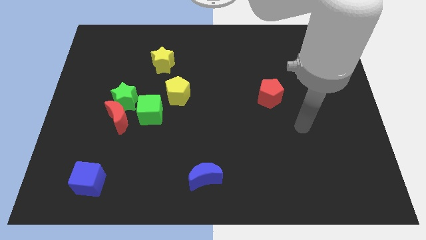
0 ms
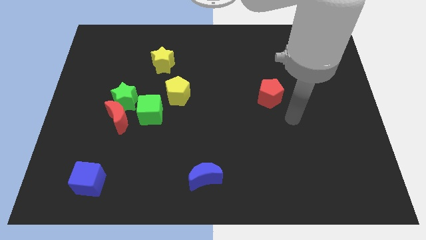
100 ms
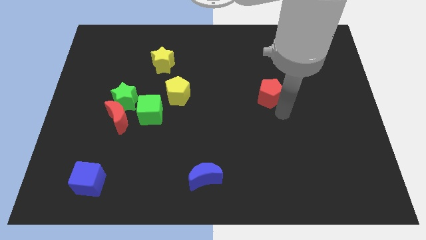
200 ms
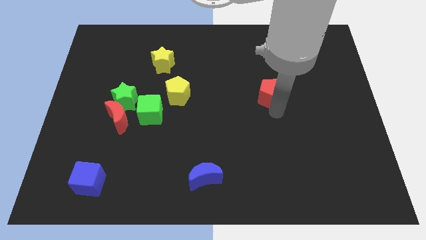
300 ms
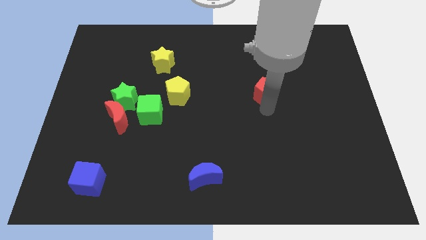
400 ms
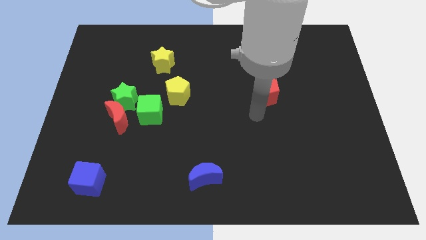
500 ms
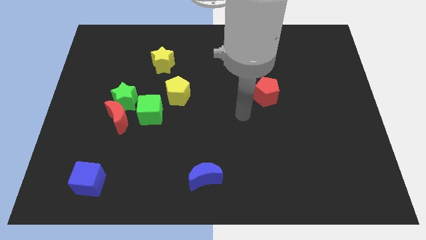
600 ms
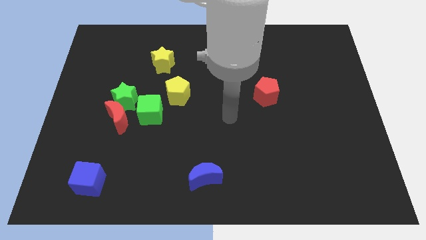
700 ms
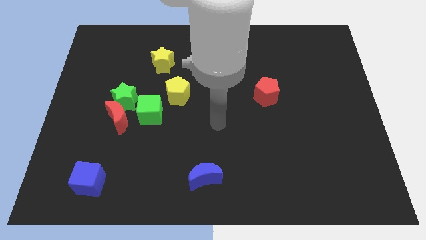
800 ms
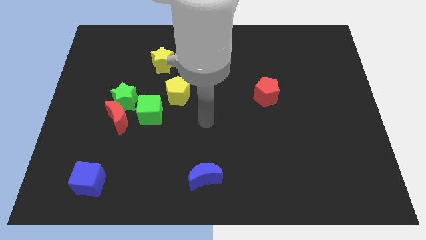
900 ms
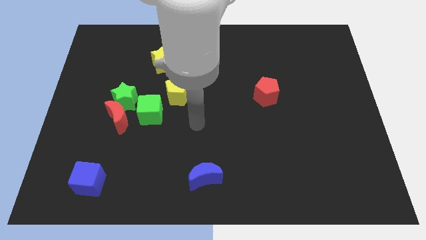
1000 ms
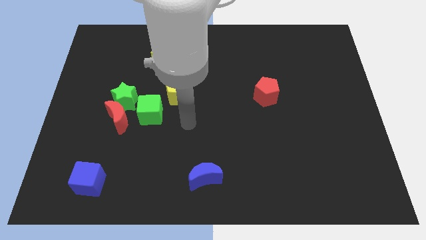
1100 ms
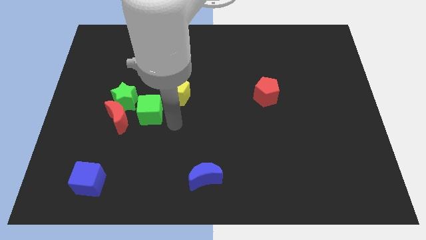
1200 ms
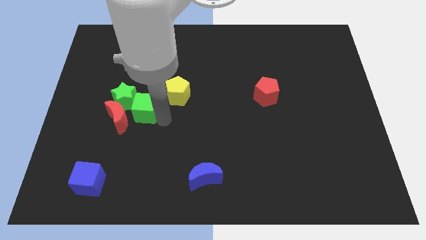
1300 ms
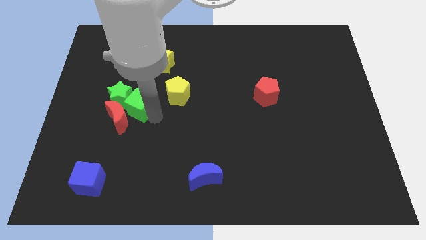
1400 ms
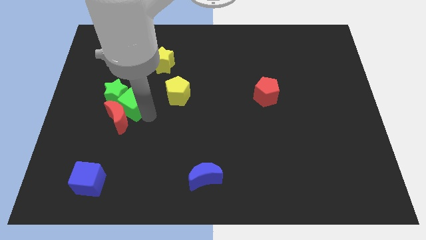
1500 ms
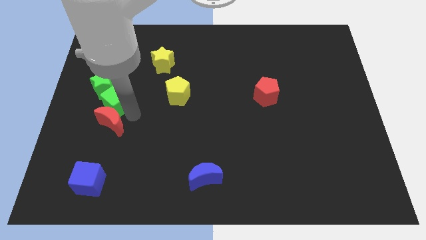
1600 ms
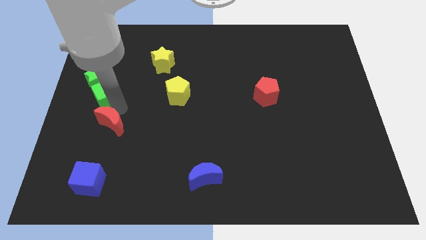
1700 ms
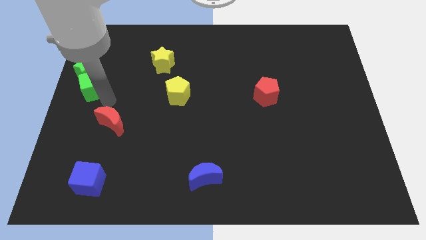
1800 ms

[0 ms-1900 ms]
pull the green star apart from the red moon and green cube

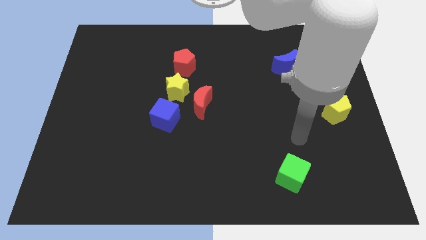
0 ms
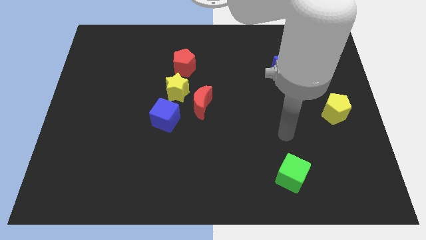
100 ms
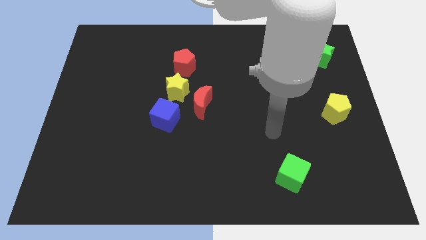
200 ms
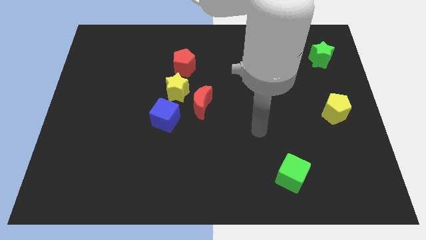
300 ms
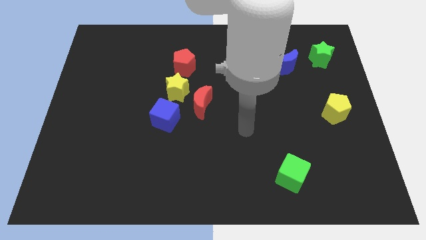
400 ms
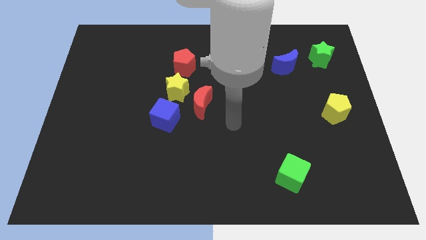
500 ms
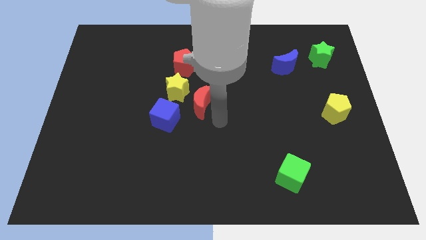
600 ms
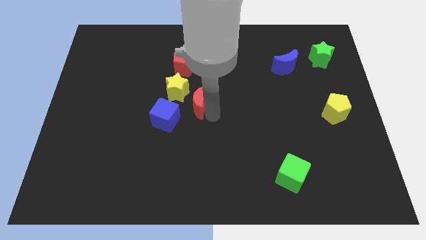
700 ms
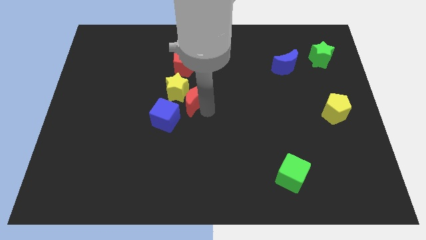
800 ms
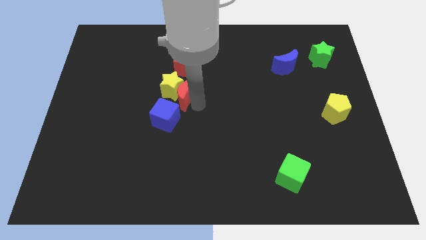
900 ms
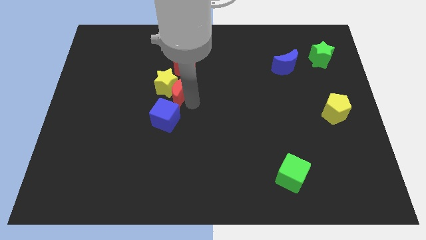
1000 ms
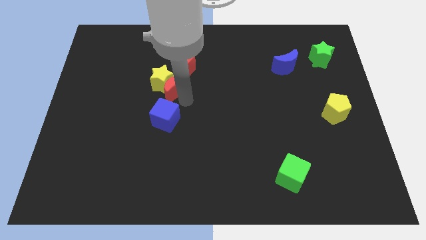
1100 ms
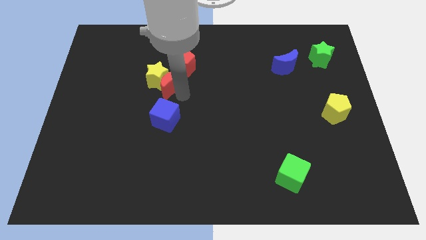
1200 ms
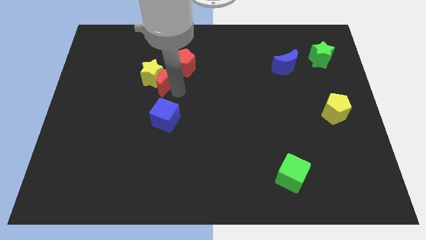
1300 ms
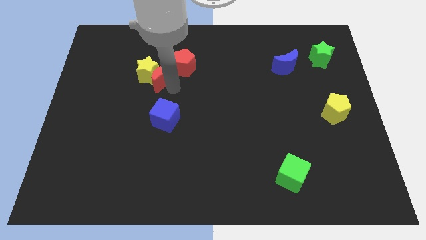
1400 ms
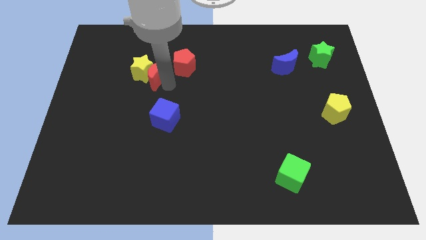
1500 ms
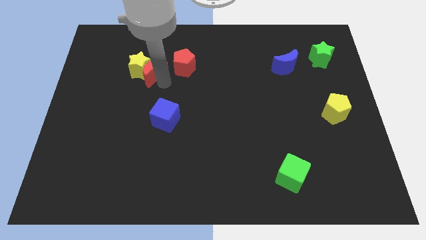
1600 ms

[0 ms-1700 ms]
move the yellow star away from the group of blocks

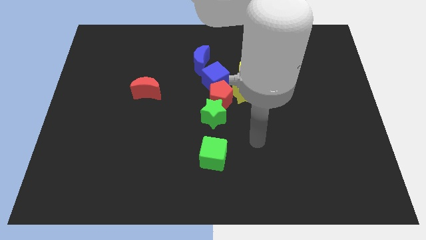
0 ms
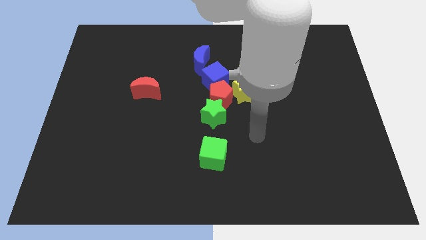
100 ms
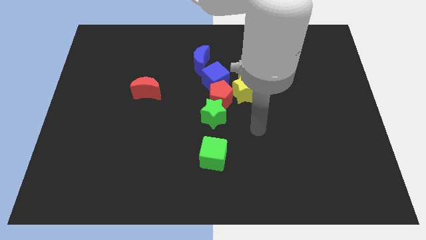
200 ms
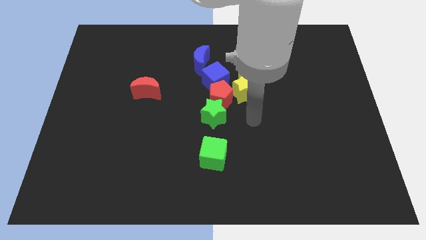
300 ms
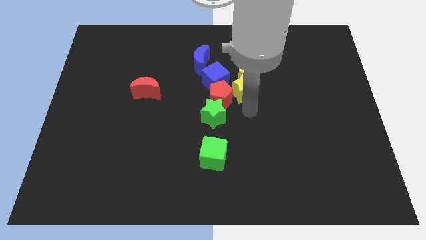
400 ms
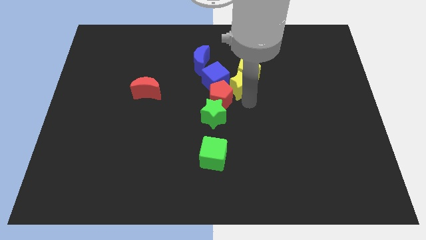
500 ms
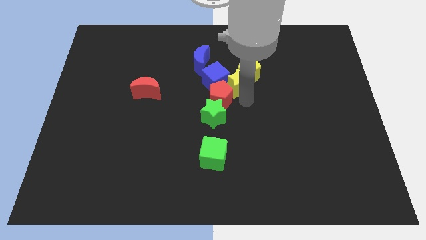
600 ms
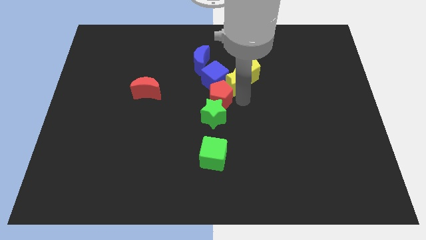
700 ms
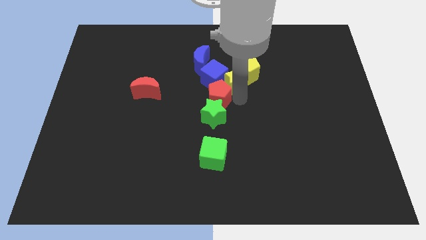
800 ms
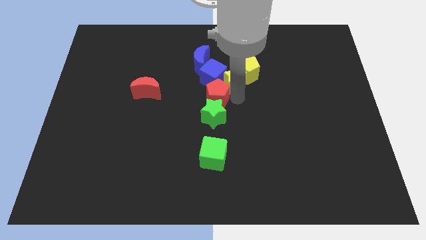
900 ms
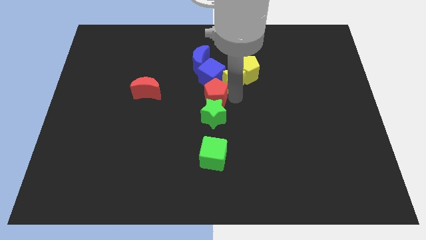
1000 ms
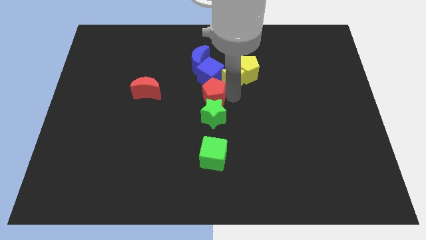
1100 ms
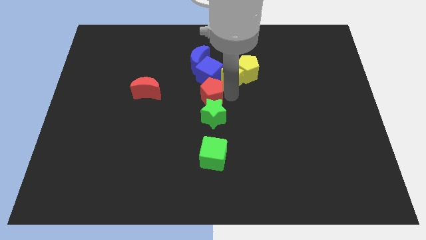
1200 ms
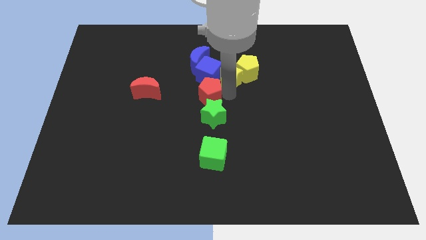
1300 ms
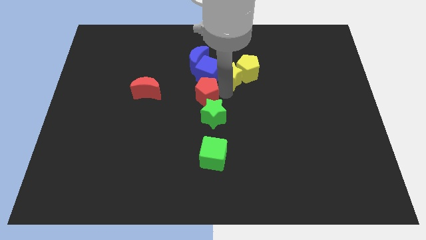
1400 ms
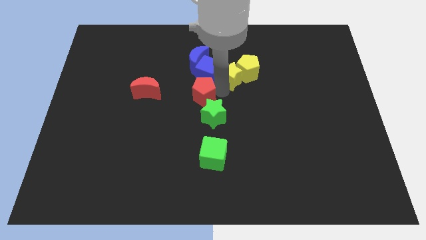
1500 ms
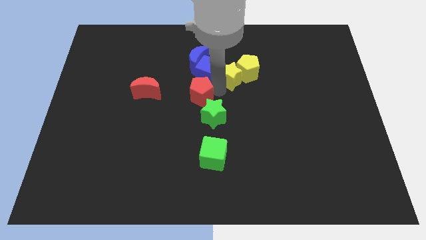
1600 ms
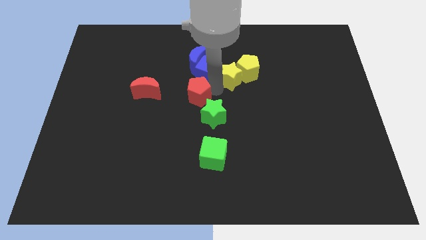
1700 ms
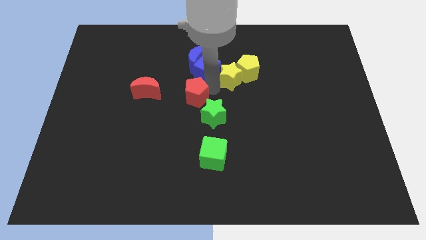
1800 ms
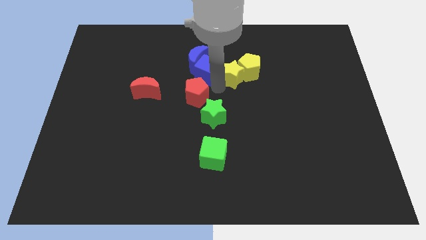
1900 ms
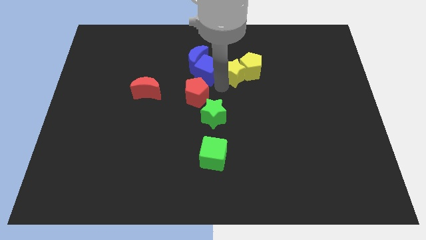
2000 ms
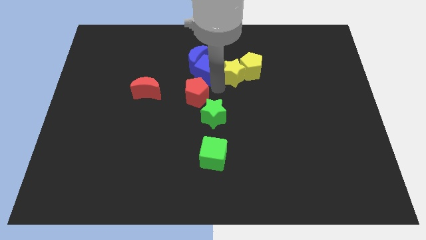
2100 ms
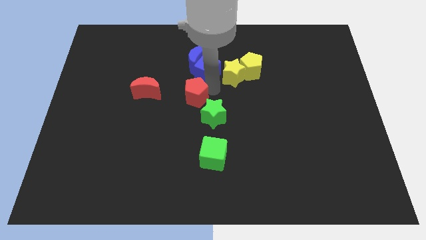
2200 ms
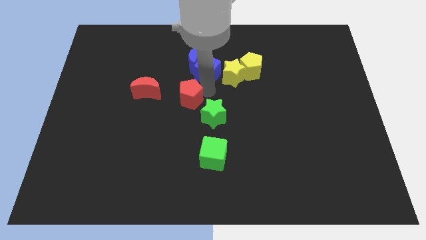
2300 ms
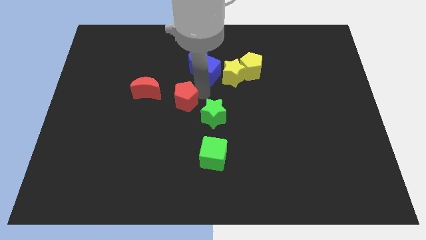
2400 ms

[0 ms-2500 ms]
separate the red pentagon from the group

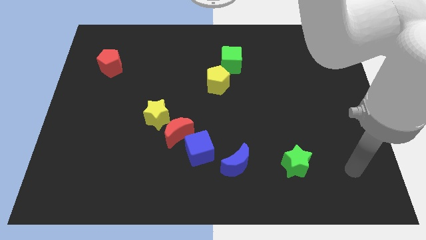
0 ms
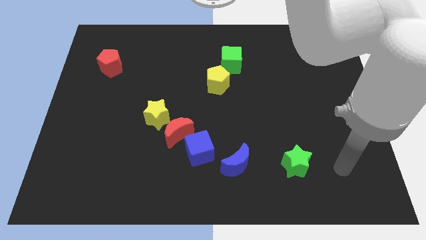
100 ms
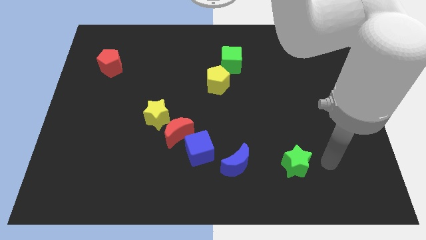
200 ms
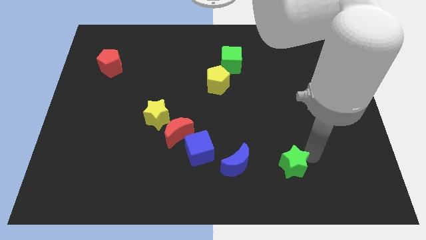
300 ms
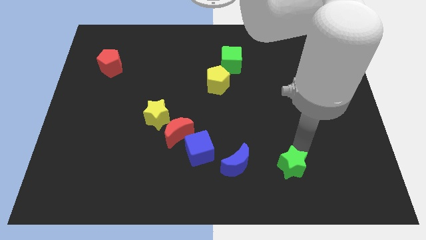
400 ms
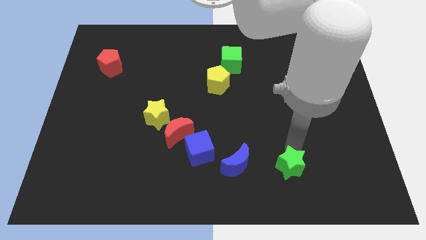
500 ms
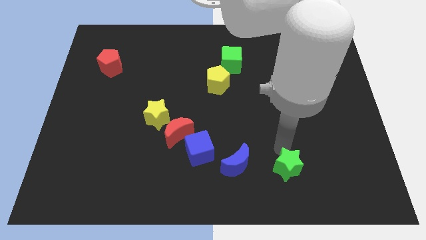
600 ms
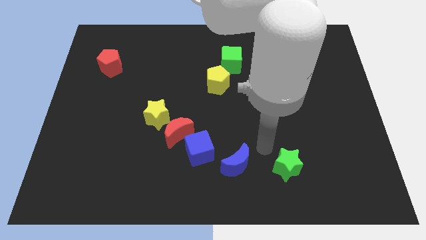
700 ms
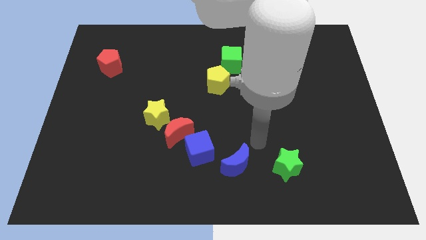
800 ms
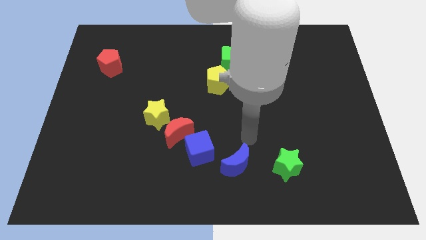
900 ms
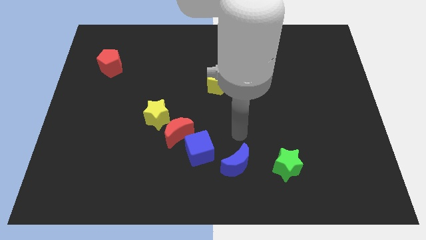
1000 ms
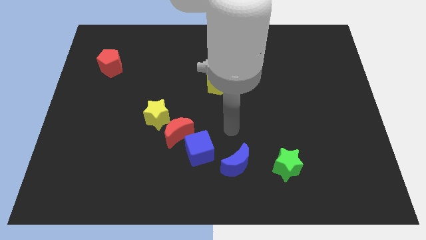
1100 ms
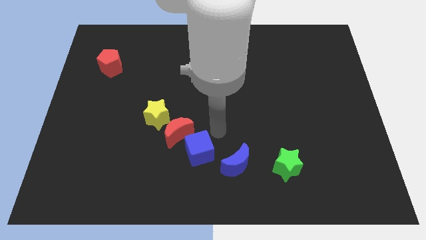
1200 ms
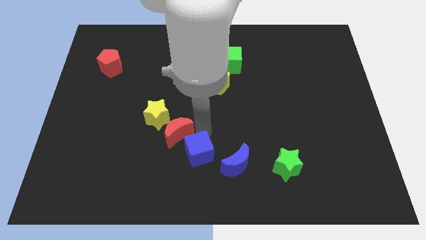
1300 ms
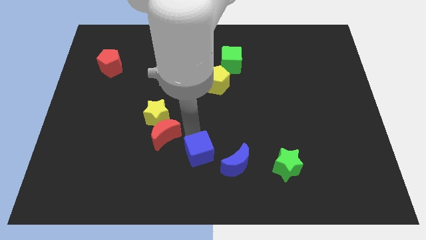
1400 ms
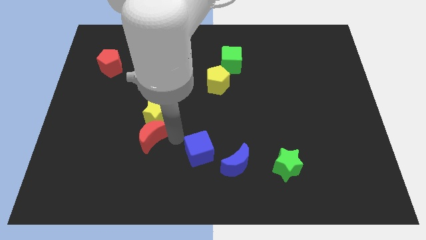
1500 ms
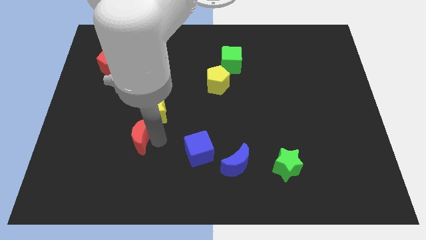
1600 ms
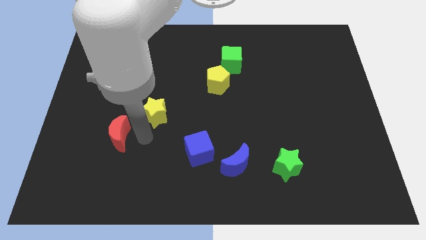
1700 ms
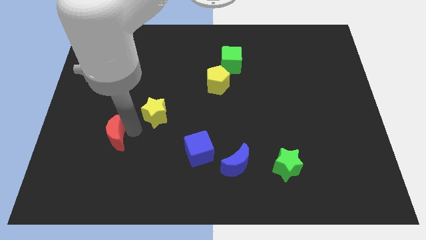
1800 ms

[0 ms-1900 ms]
pull the yellow star apart from the red moon

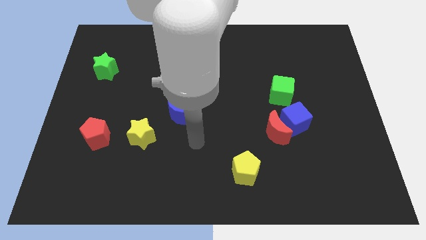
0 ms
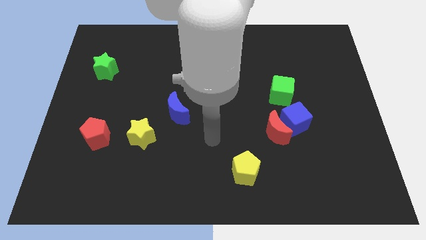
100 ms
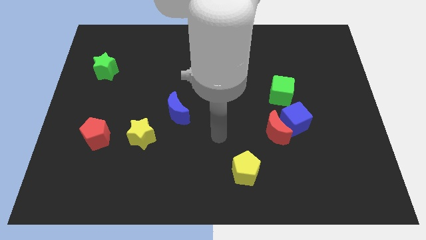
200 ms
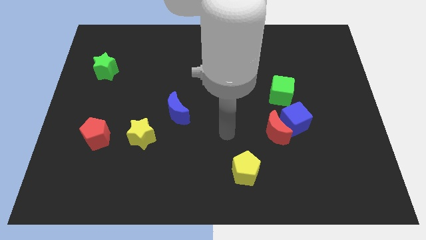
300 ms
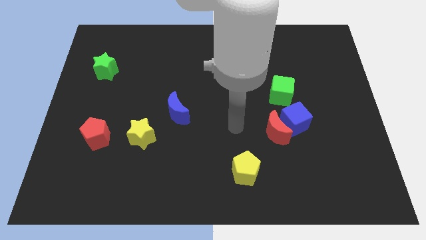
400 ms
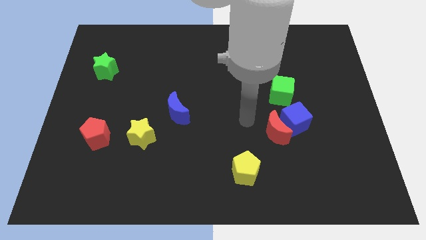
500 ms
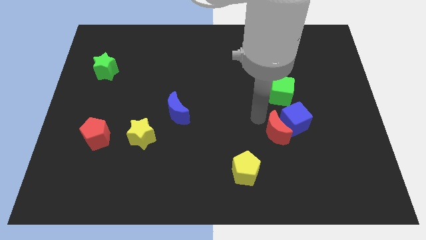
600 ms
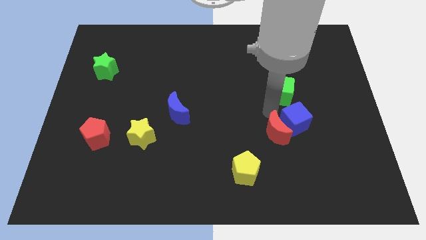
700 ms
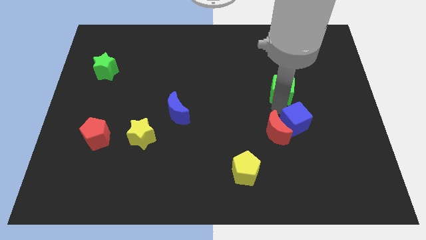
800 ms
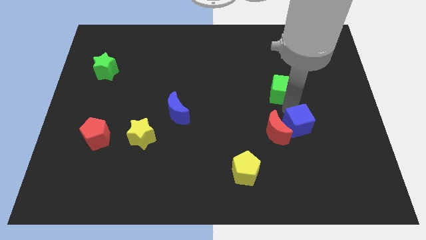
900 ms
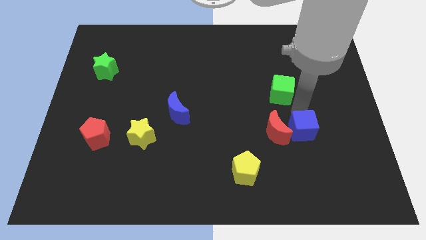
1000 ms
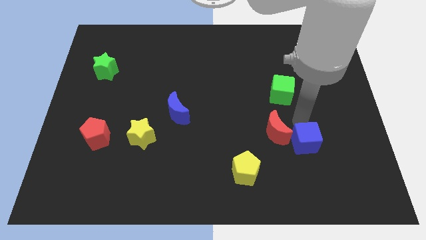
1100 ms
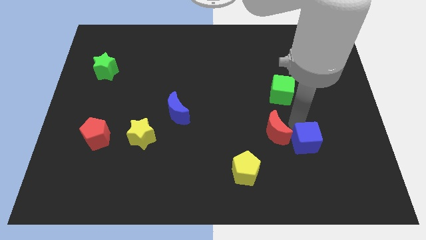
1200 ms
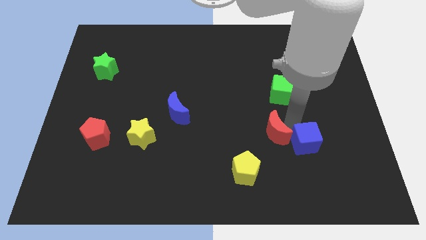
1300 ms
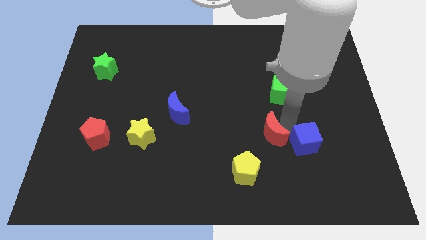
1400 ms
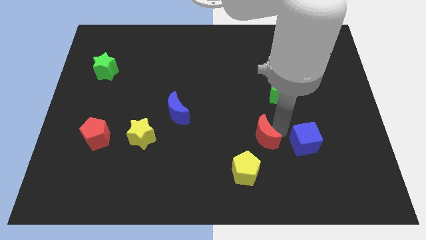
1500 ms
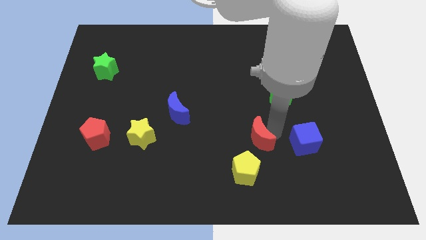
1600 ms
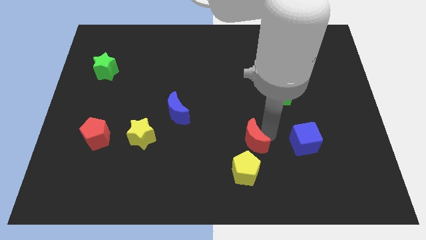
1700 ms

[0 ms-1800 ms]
move the red moon away from the blue cube
